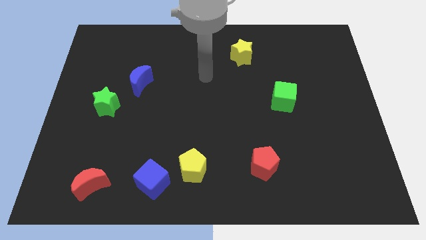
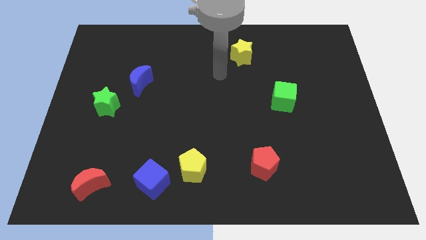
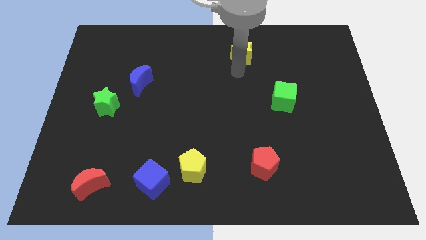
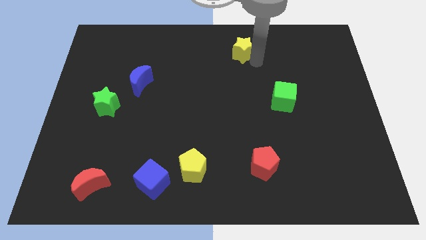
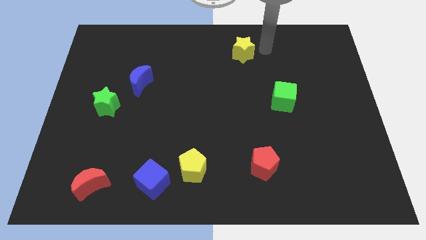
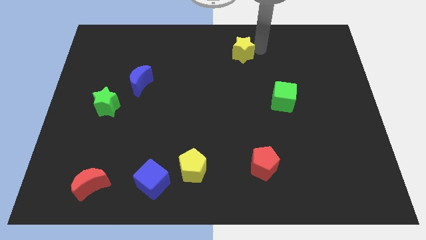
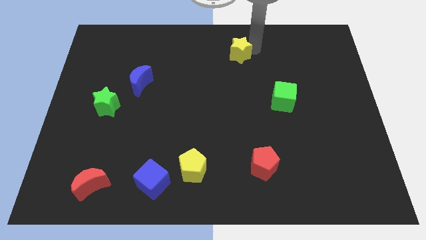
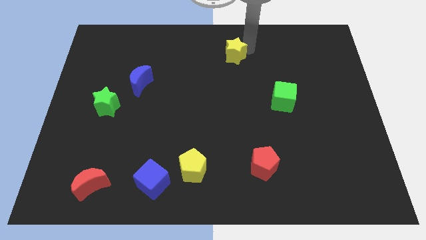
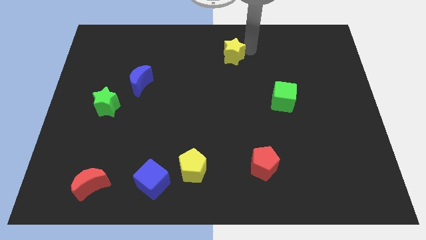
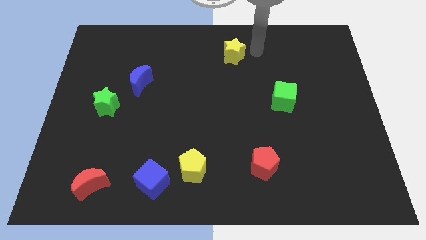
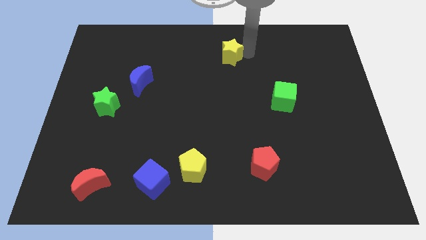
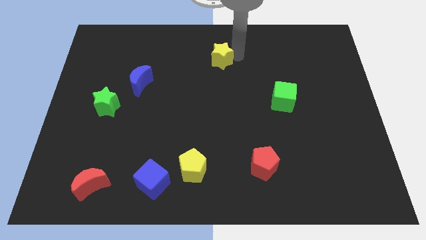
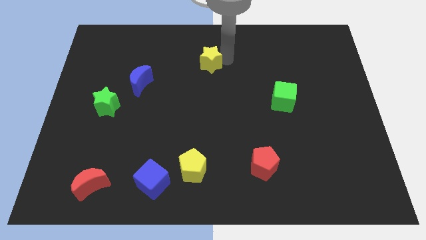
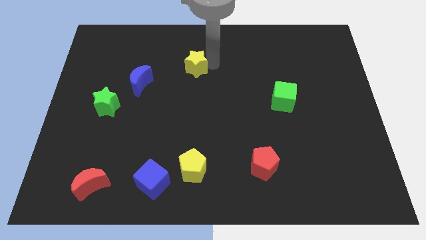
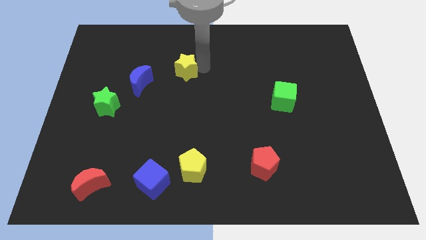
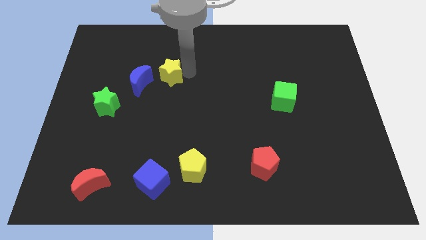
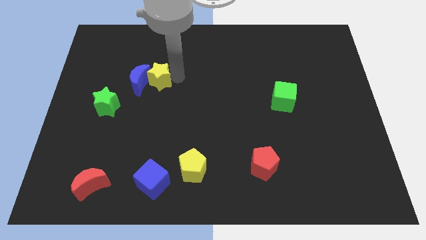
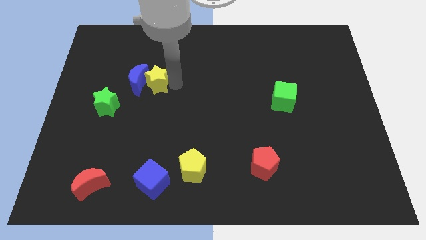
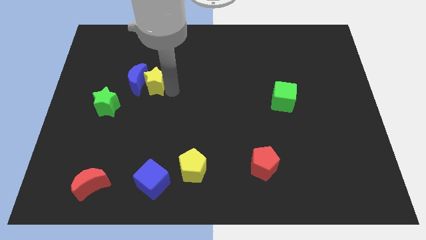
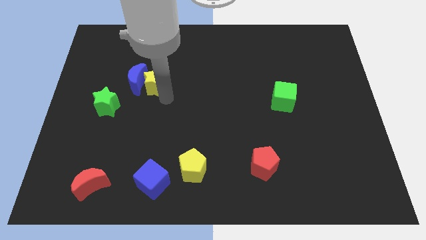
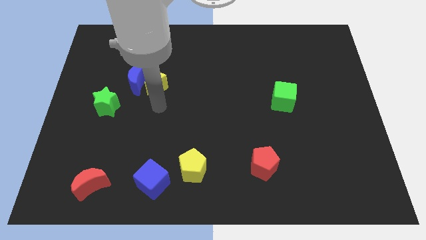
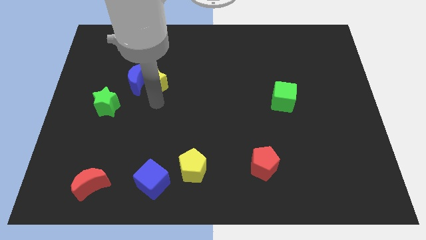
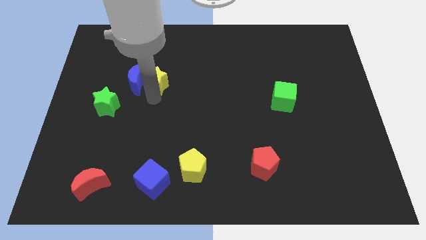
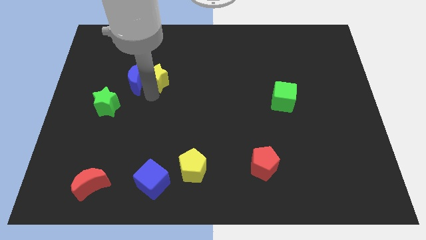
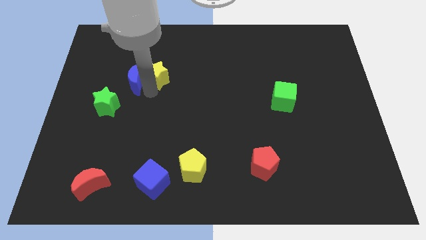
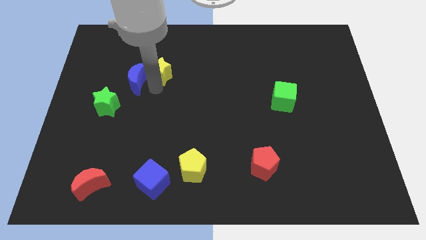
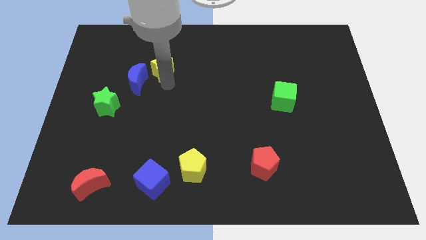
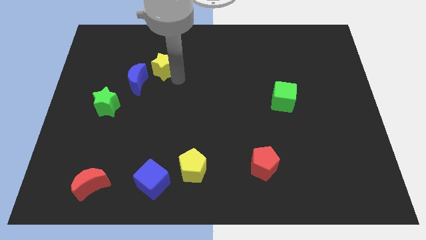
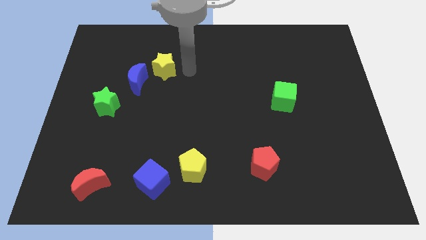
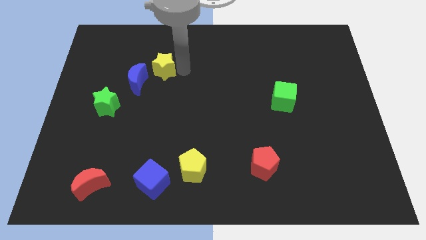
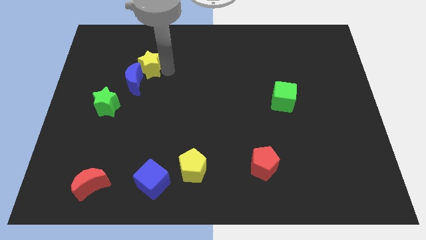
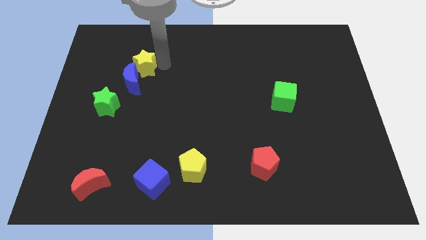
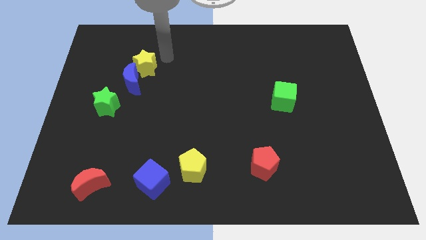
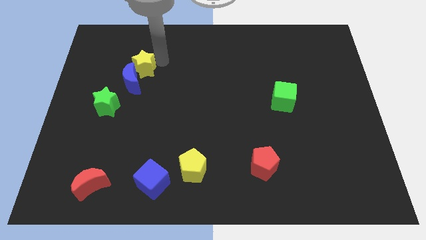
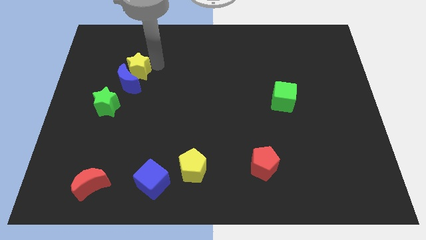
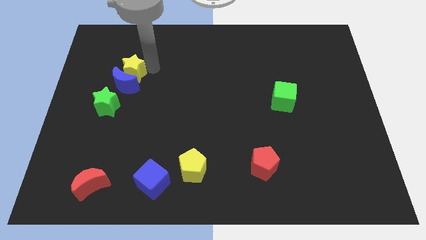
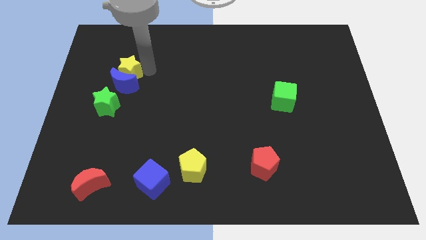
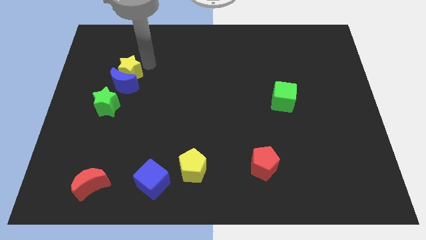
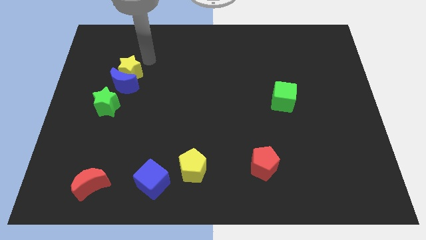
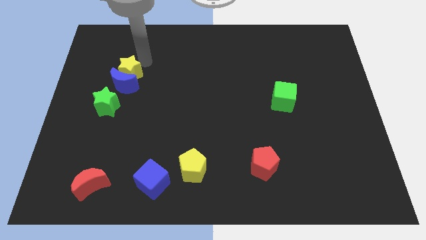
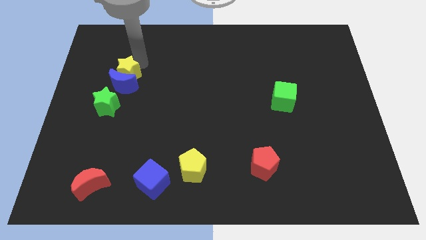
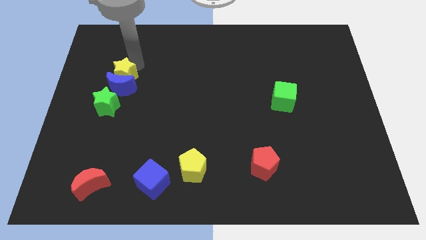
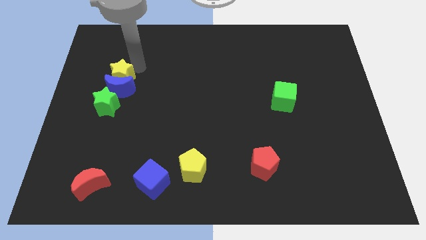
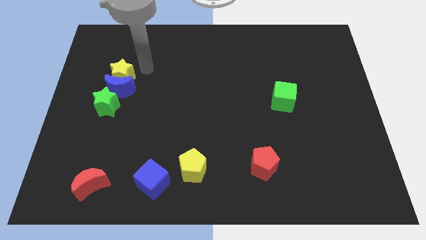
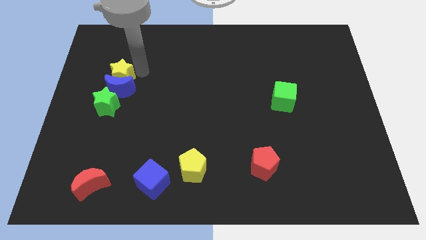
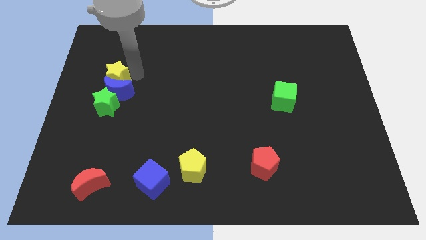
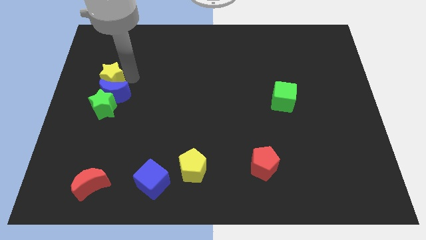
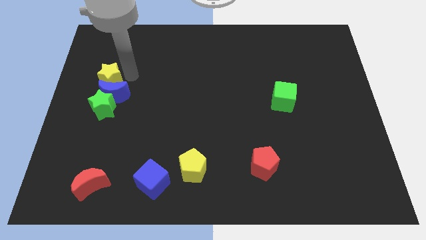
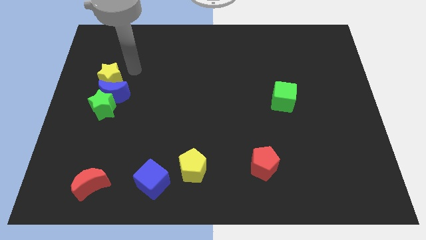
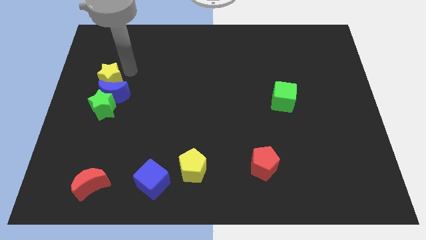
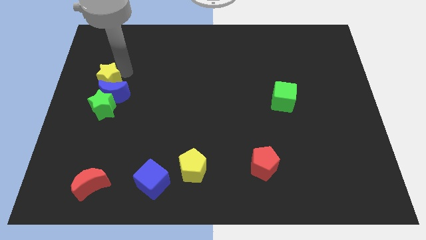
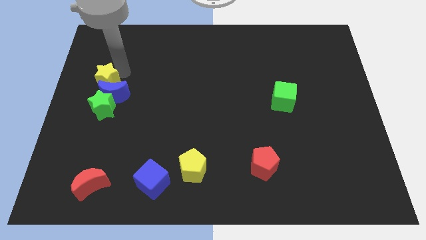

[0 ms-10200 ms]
put the yellow star to the center left

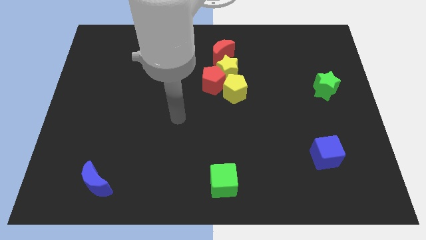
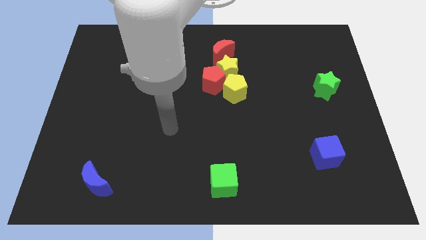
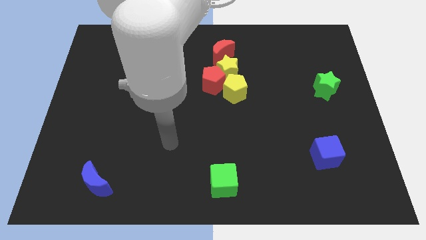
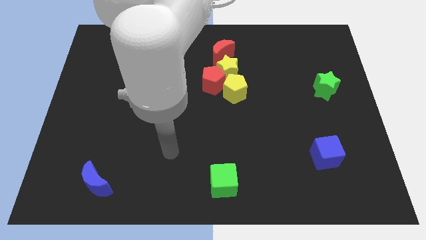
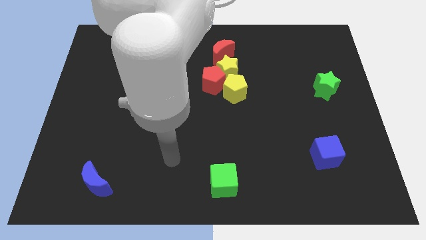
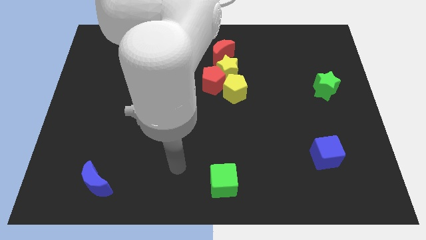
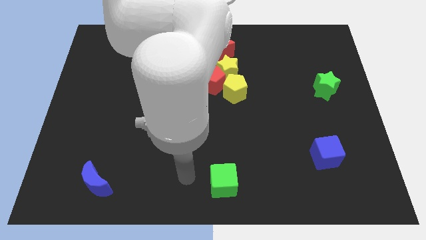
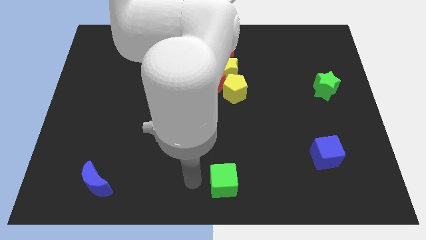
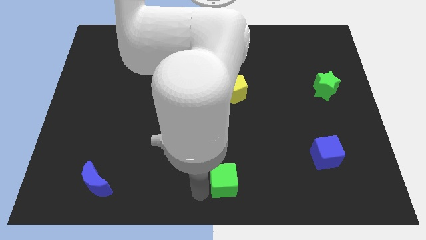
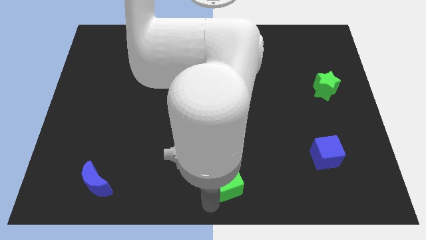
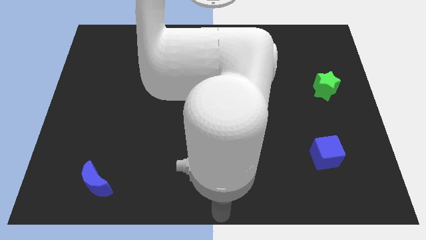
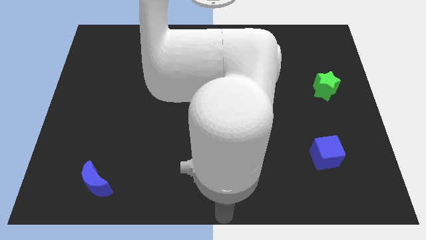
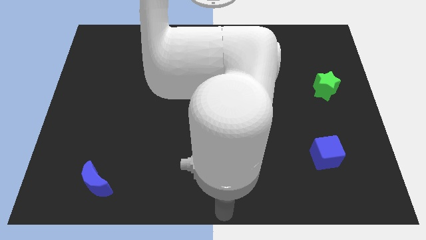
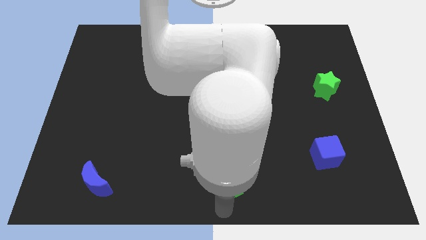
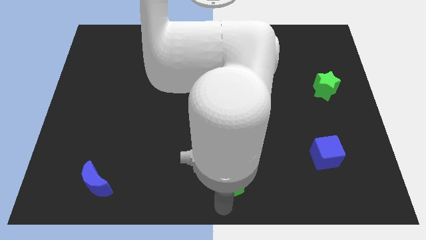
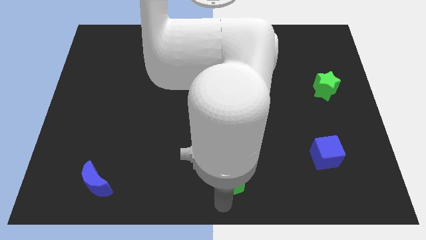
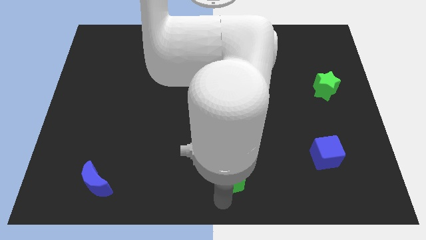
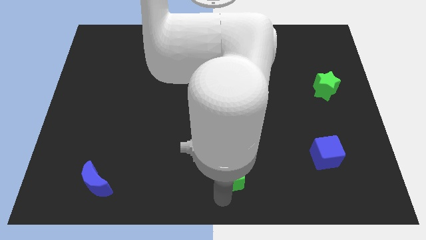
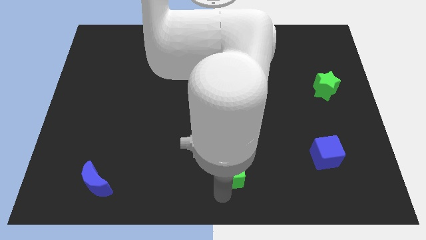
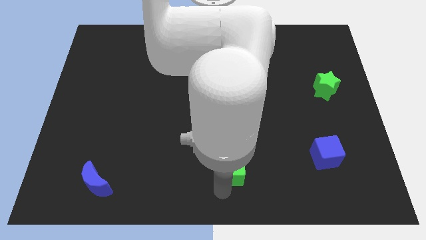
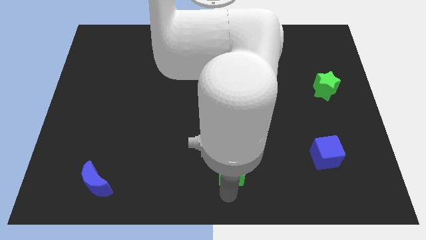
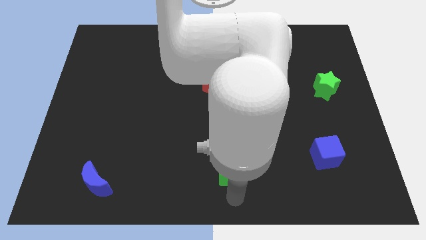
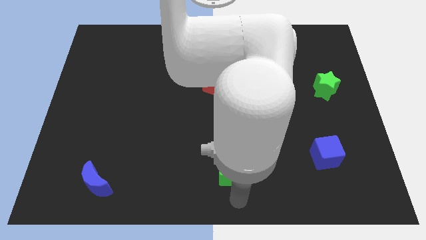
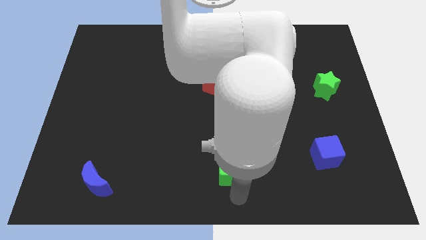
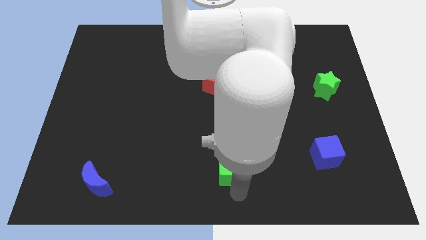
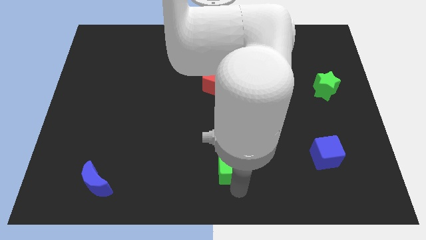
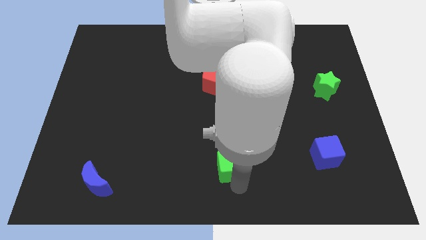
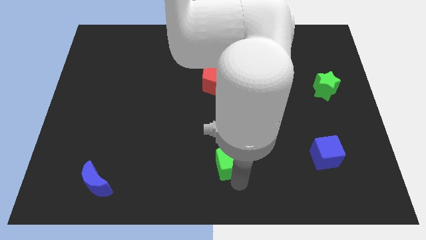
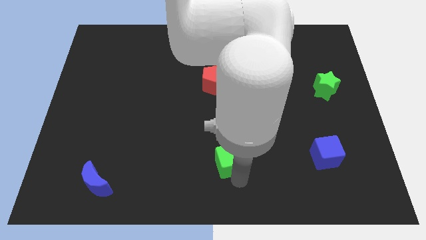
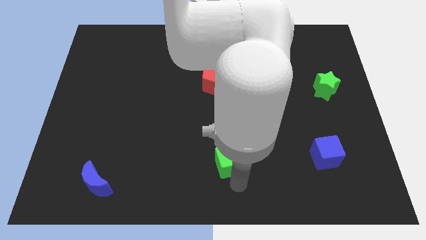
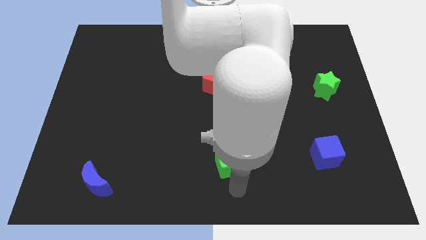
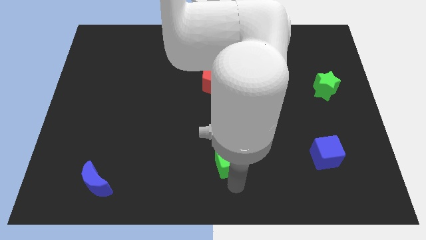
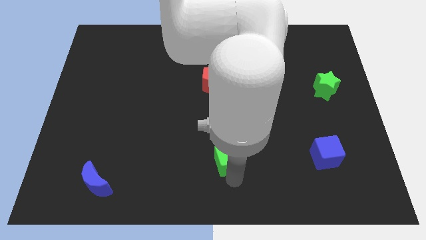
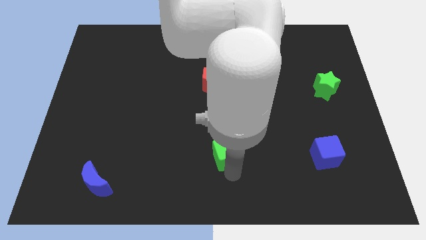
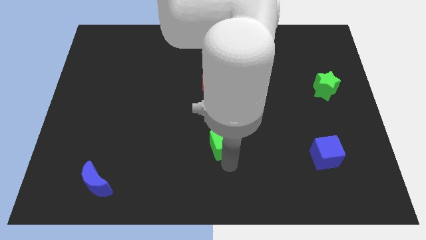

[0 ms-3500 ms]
slide the green cube to the center
